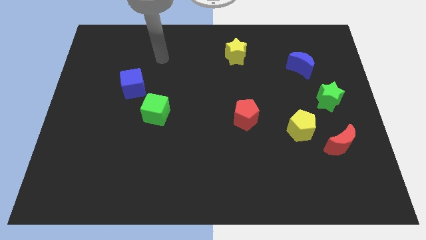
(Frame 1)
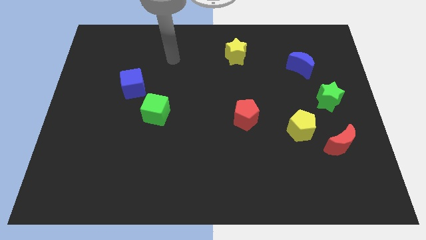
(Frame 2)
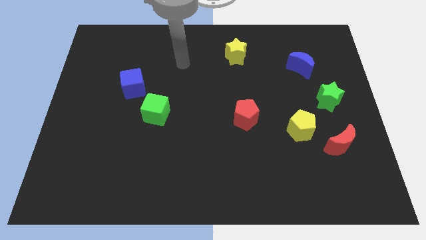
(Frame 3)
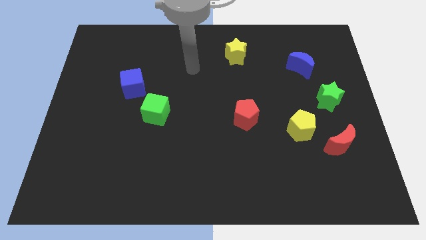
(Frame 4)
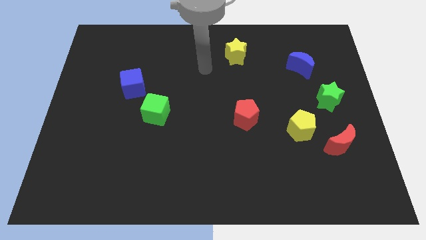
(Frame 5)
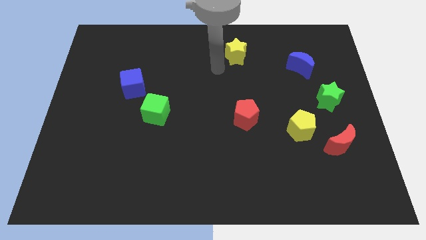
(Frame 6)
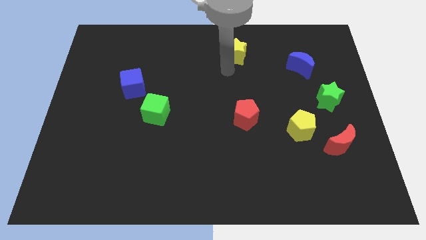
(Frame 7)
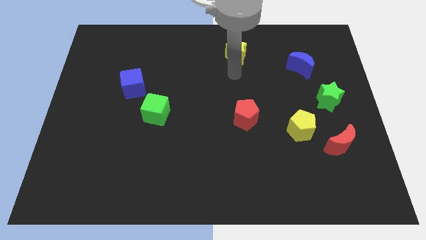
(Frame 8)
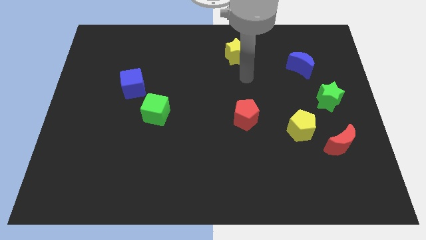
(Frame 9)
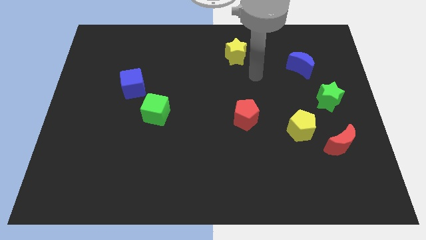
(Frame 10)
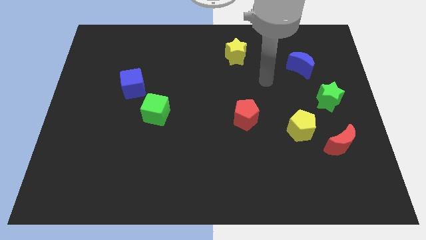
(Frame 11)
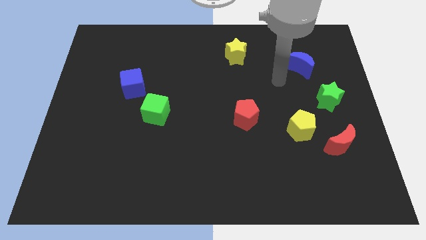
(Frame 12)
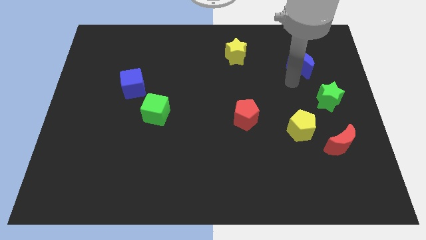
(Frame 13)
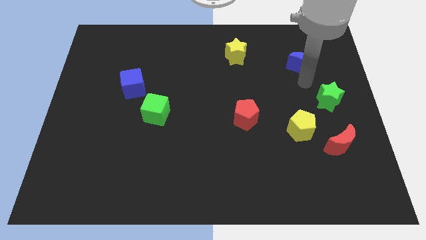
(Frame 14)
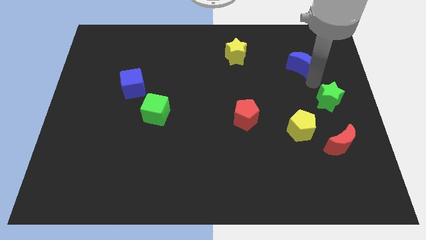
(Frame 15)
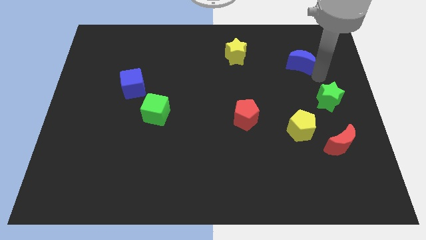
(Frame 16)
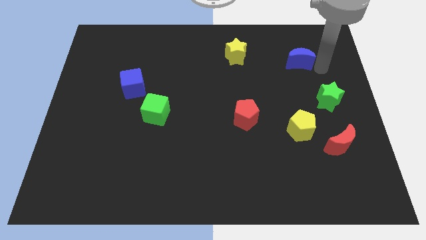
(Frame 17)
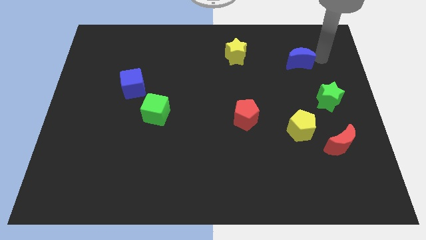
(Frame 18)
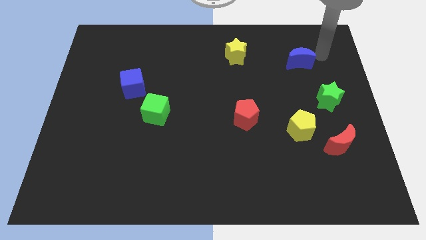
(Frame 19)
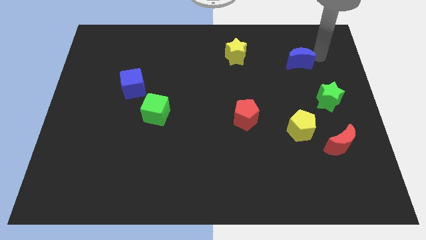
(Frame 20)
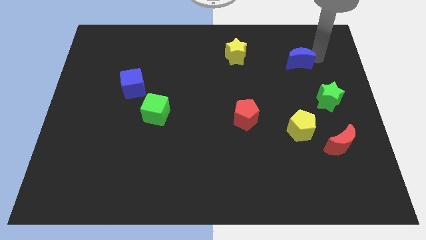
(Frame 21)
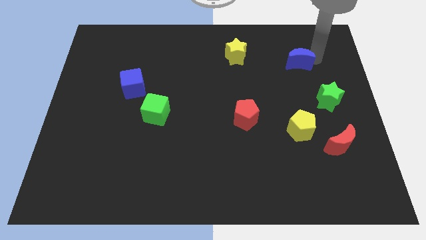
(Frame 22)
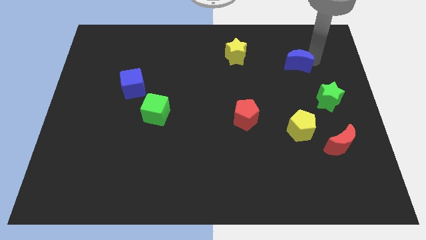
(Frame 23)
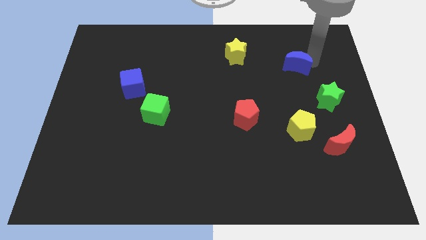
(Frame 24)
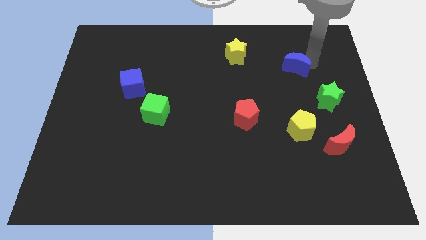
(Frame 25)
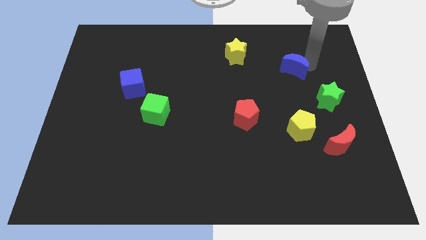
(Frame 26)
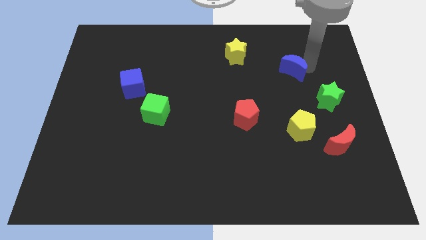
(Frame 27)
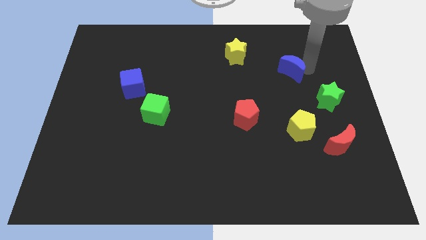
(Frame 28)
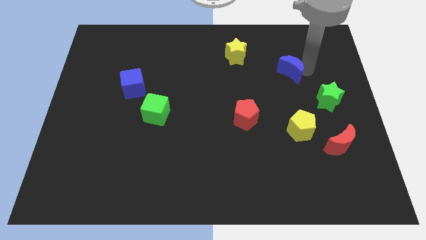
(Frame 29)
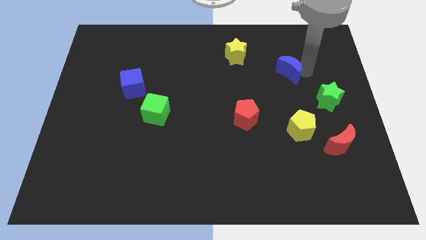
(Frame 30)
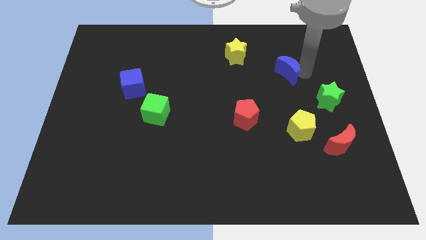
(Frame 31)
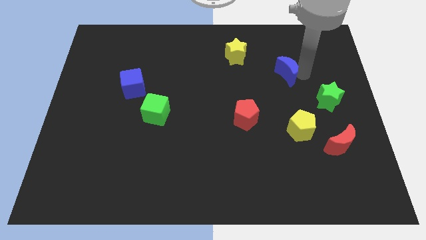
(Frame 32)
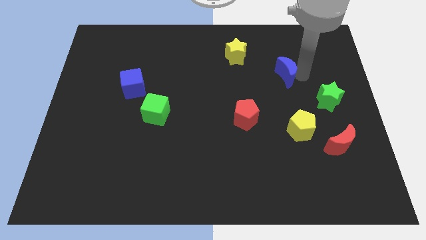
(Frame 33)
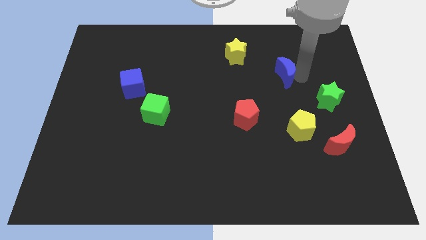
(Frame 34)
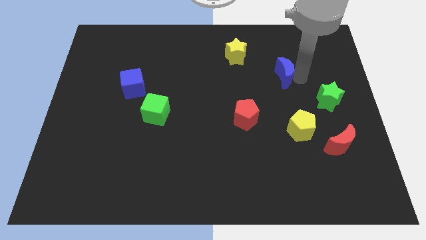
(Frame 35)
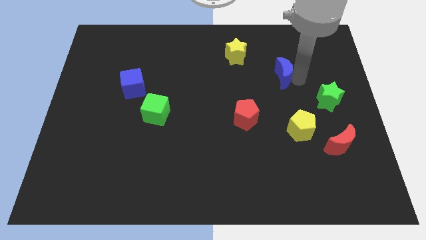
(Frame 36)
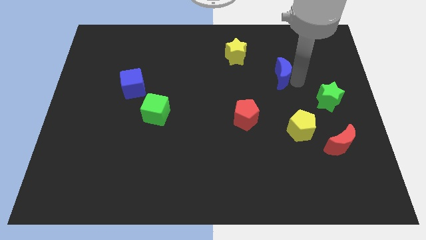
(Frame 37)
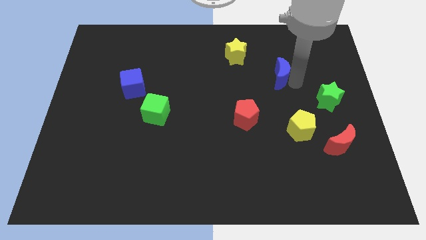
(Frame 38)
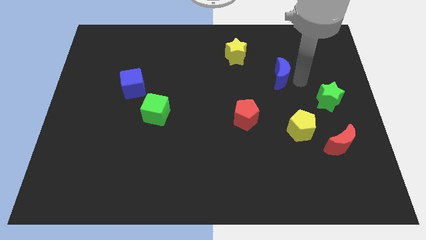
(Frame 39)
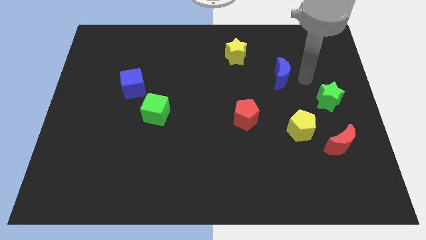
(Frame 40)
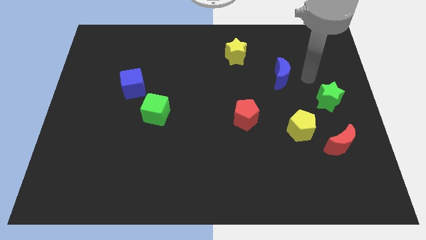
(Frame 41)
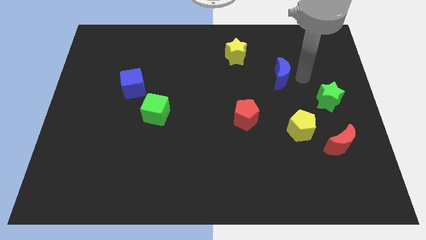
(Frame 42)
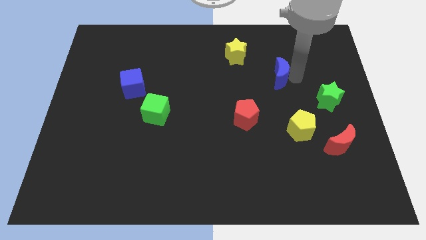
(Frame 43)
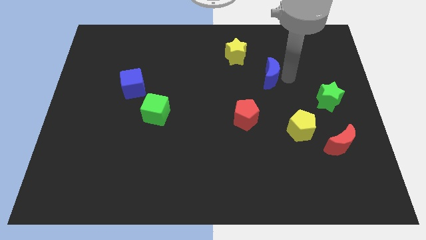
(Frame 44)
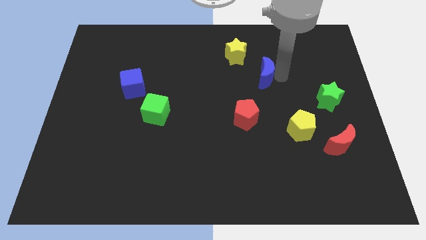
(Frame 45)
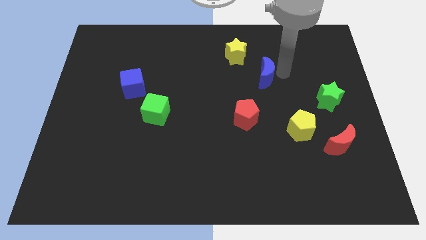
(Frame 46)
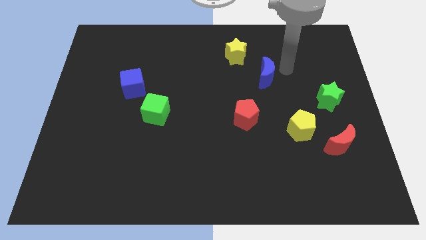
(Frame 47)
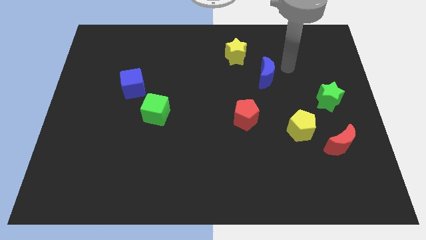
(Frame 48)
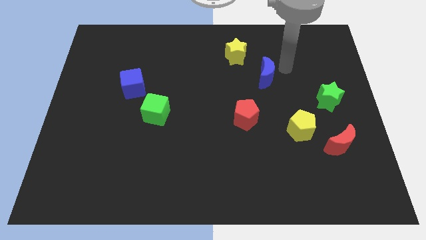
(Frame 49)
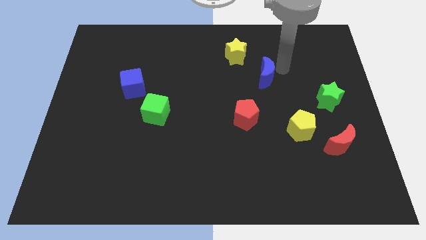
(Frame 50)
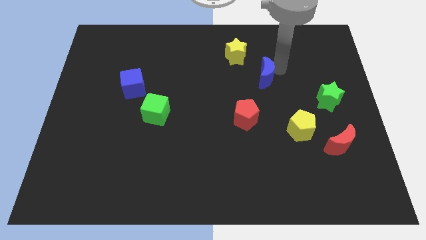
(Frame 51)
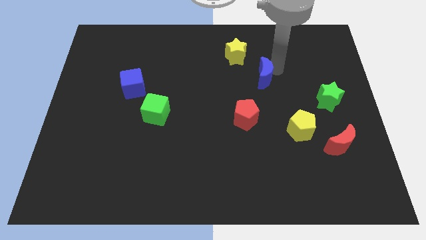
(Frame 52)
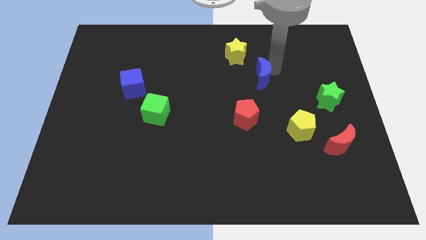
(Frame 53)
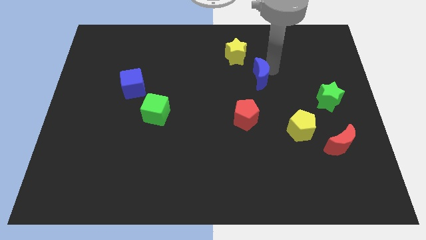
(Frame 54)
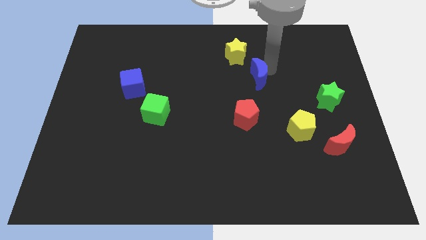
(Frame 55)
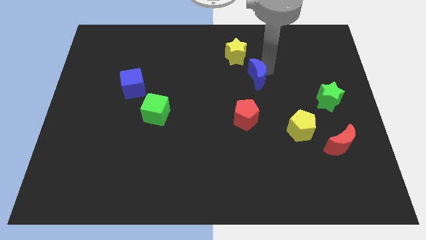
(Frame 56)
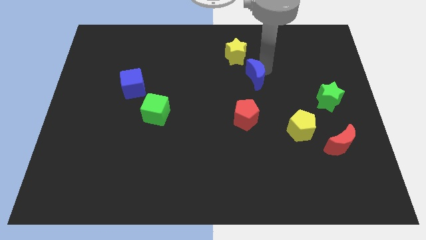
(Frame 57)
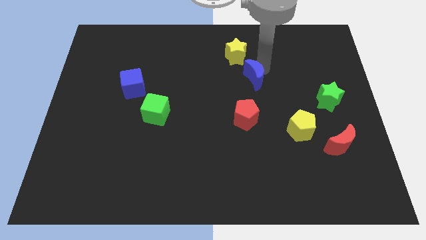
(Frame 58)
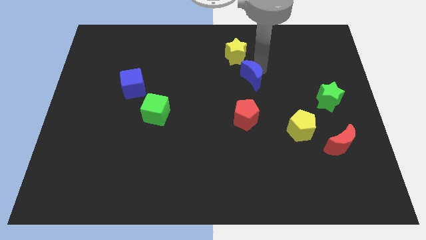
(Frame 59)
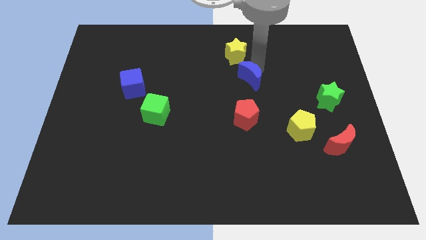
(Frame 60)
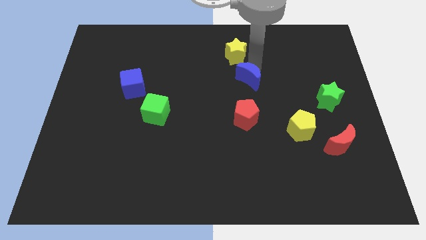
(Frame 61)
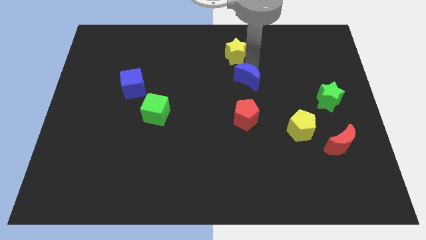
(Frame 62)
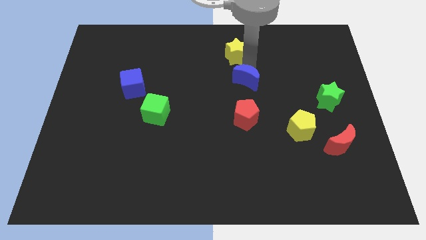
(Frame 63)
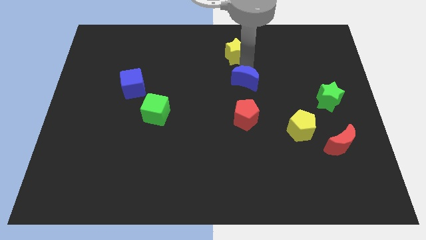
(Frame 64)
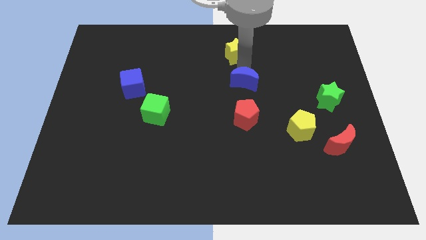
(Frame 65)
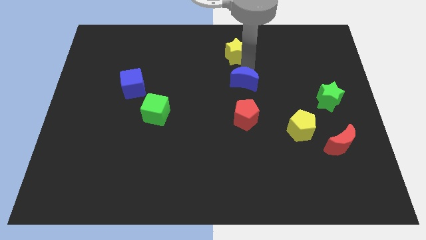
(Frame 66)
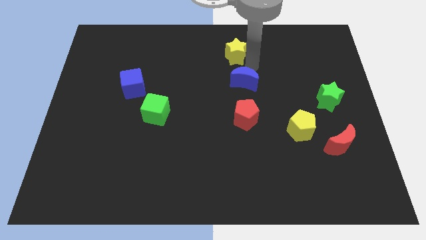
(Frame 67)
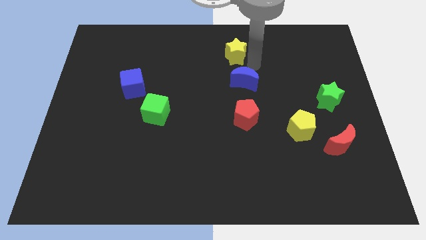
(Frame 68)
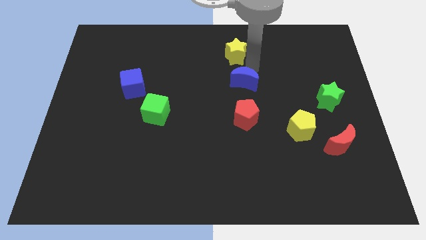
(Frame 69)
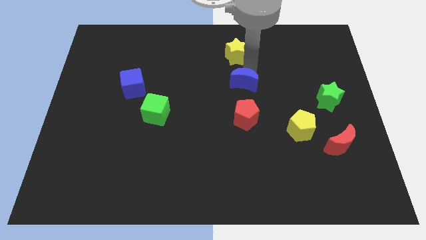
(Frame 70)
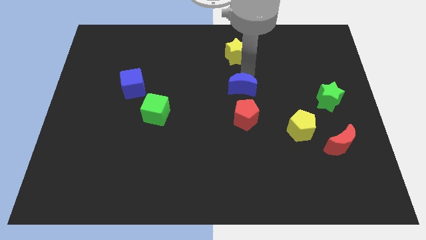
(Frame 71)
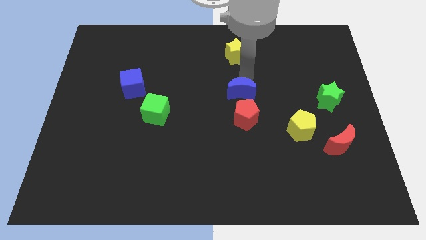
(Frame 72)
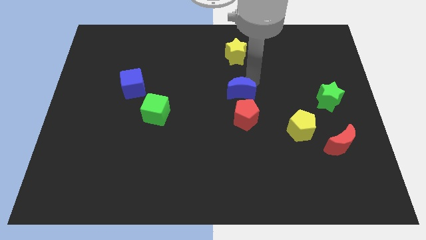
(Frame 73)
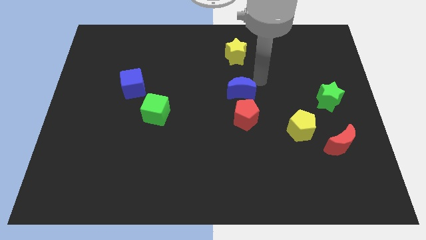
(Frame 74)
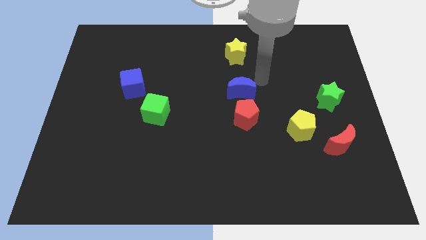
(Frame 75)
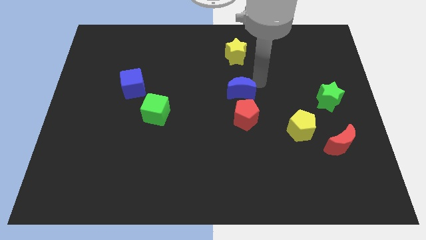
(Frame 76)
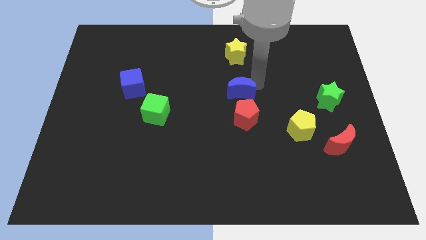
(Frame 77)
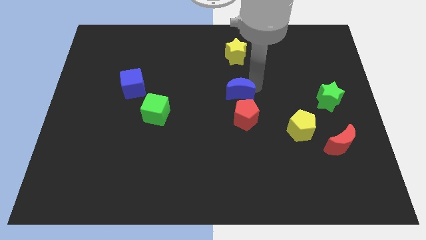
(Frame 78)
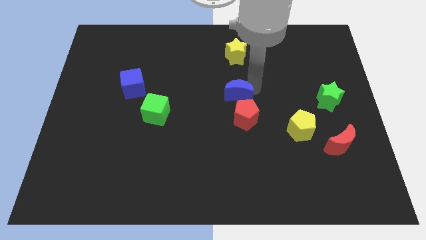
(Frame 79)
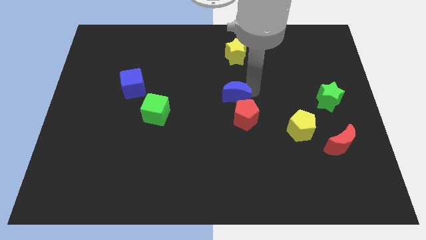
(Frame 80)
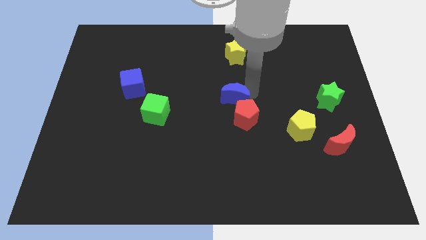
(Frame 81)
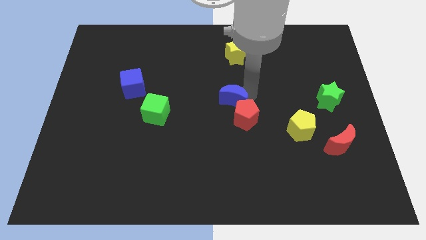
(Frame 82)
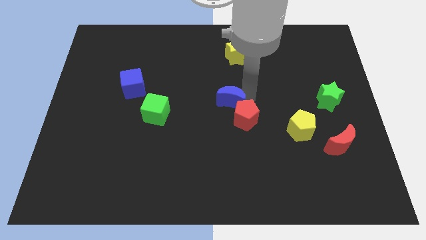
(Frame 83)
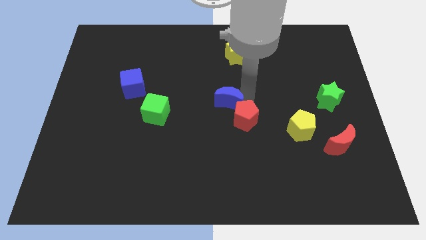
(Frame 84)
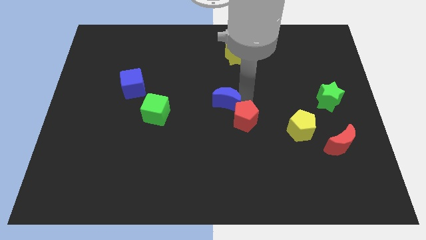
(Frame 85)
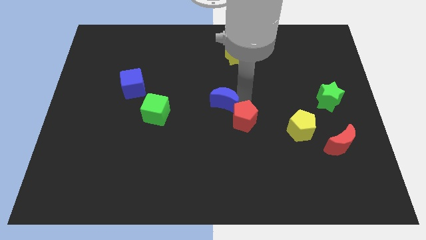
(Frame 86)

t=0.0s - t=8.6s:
move the blue moon to the left side of the red pentagon
